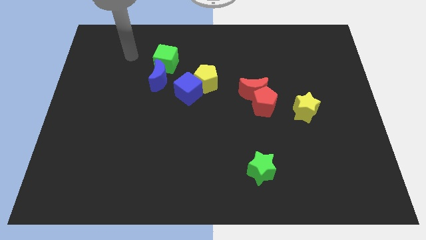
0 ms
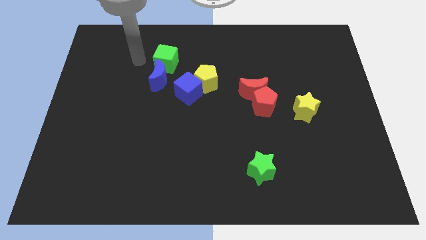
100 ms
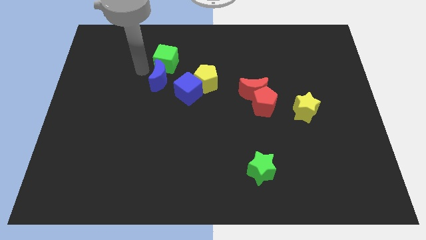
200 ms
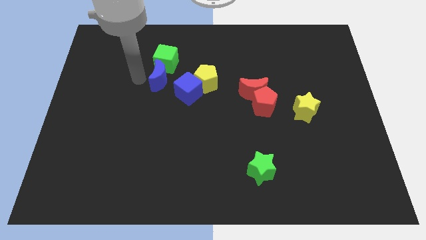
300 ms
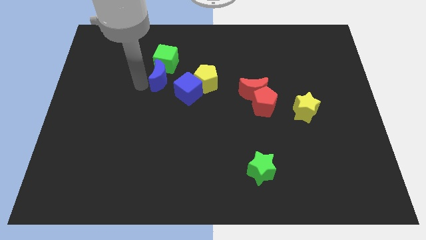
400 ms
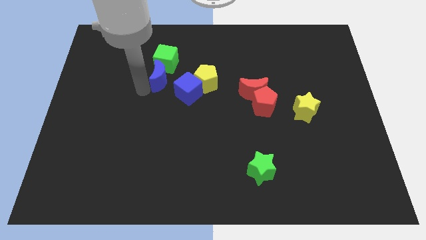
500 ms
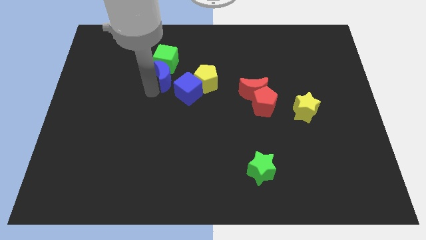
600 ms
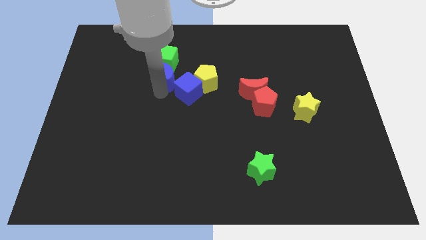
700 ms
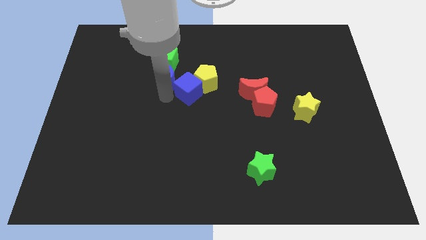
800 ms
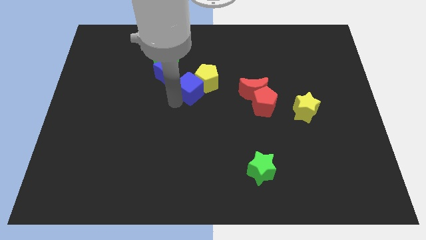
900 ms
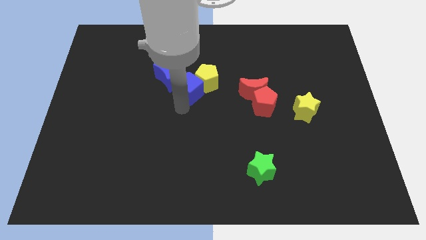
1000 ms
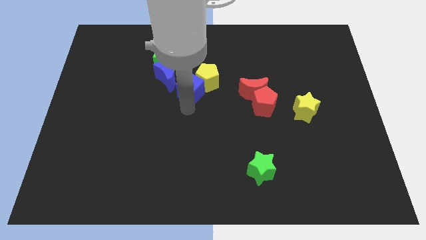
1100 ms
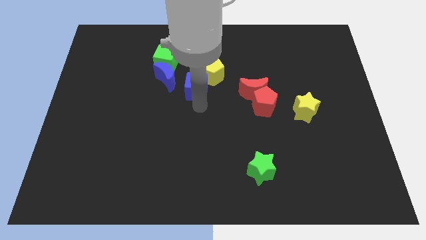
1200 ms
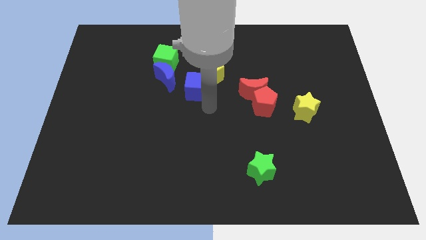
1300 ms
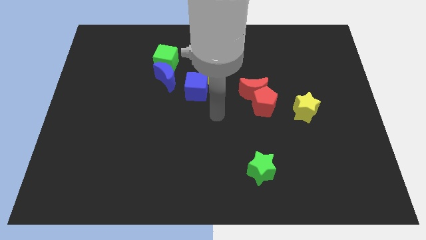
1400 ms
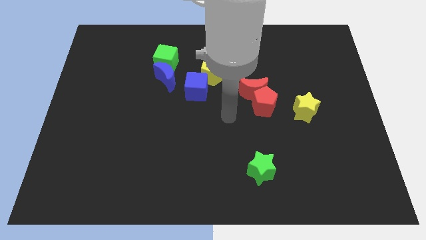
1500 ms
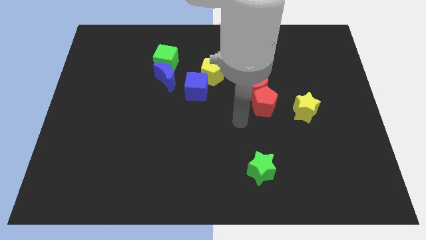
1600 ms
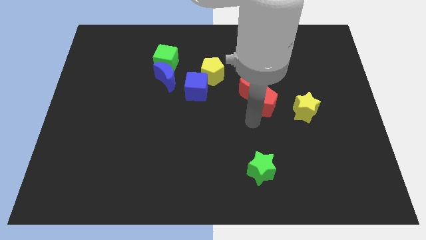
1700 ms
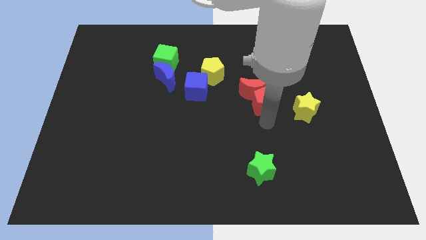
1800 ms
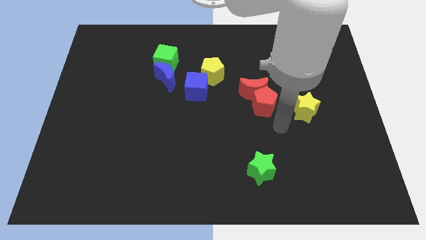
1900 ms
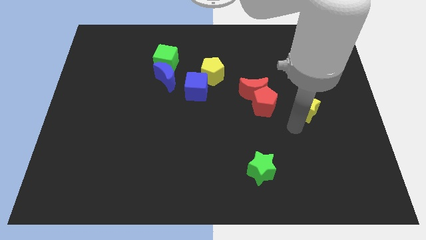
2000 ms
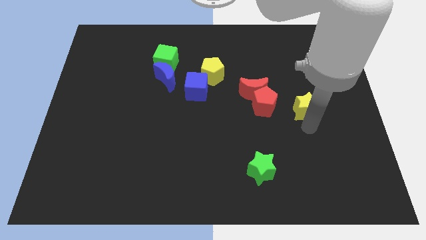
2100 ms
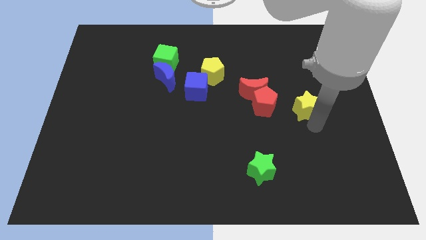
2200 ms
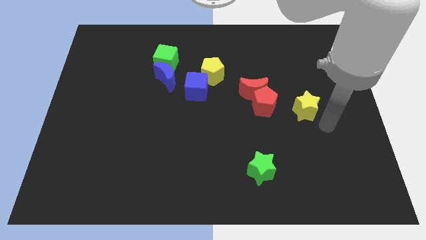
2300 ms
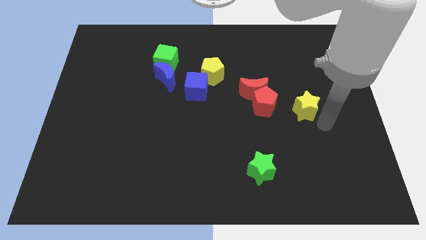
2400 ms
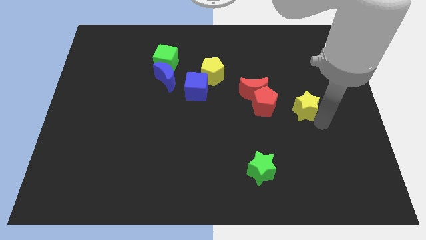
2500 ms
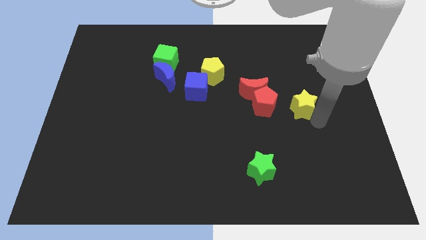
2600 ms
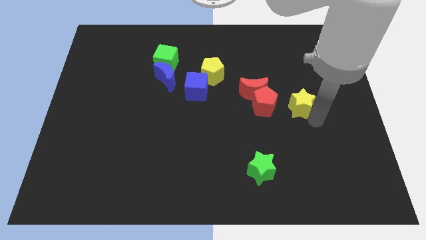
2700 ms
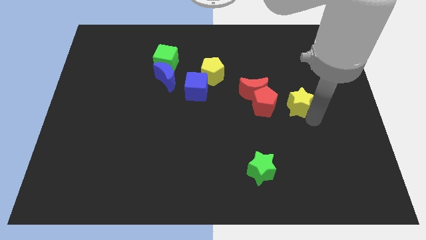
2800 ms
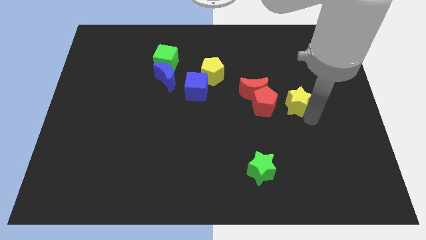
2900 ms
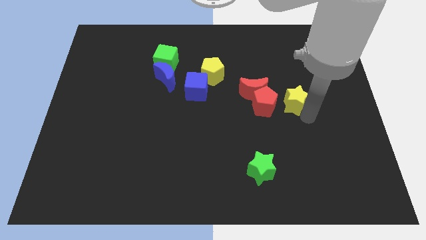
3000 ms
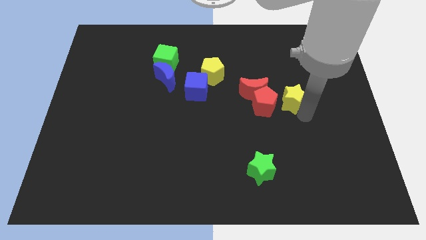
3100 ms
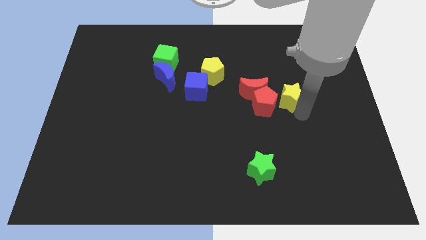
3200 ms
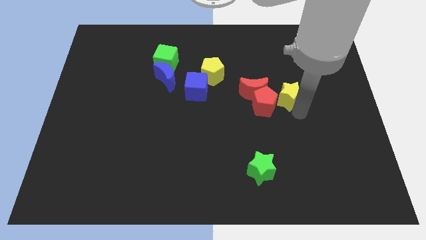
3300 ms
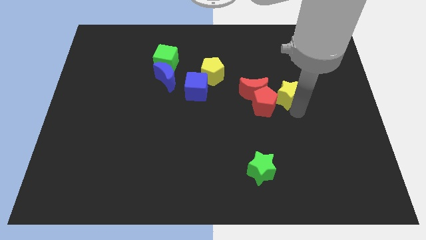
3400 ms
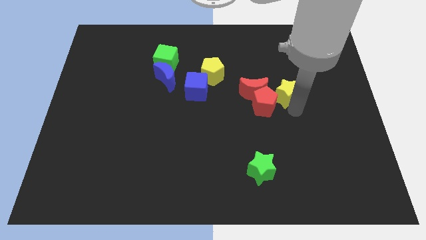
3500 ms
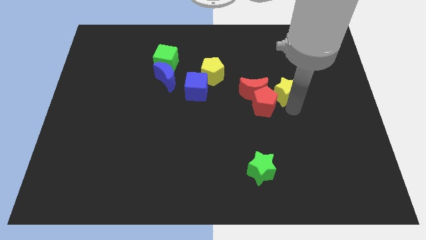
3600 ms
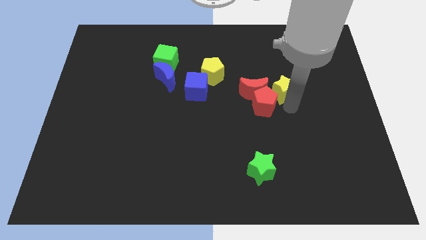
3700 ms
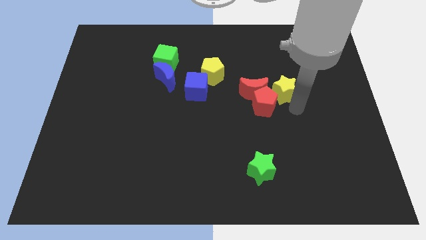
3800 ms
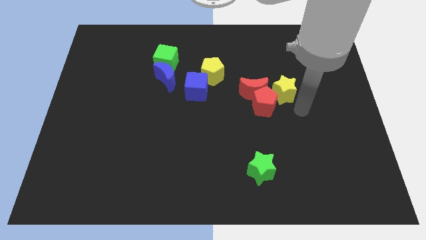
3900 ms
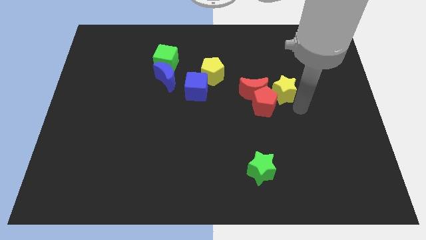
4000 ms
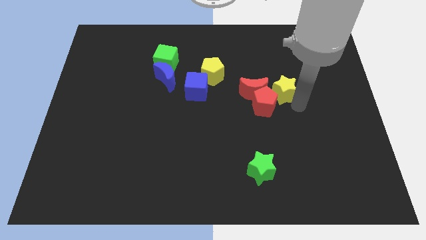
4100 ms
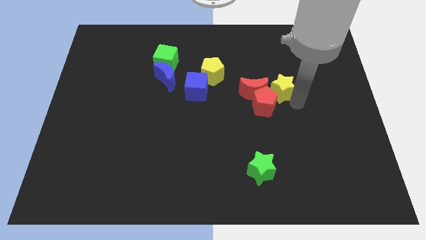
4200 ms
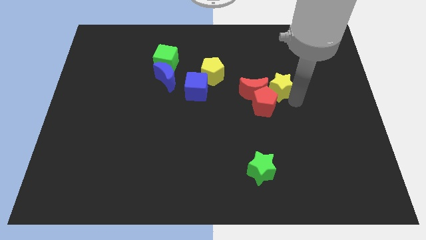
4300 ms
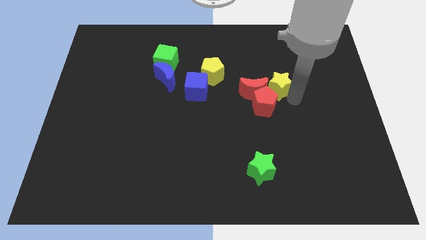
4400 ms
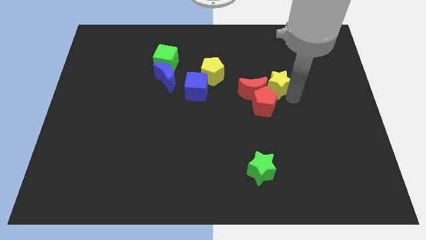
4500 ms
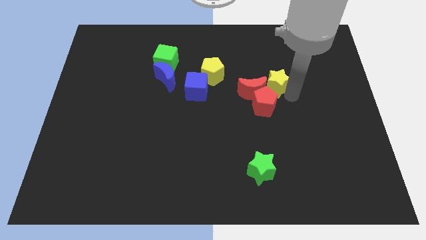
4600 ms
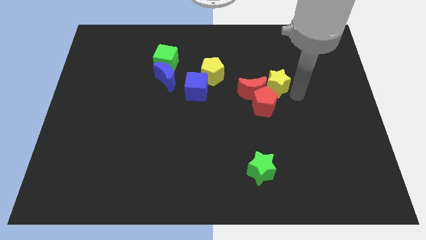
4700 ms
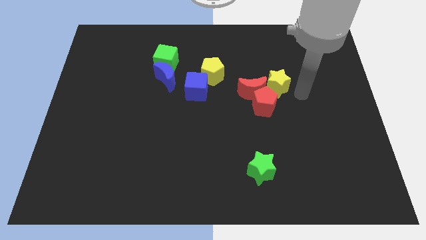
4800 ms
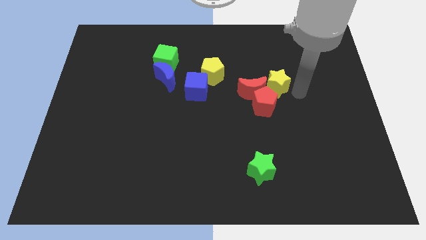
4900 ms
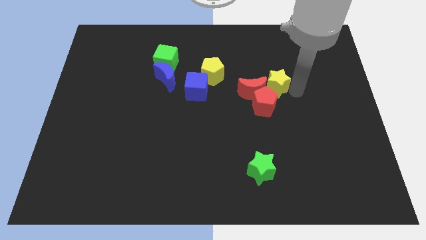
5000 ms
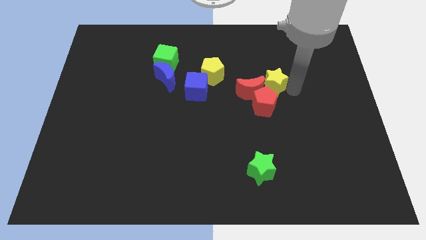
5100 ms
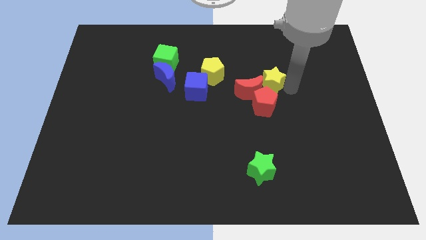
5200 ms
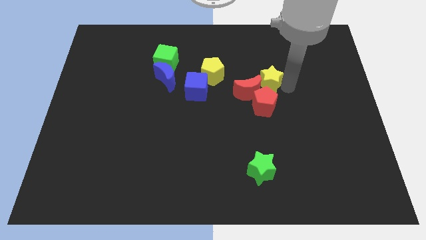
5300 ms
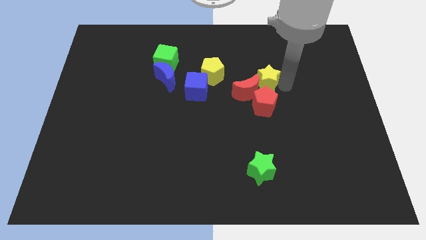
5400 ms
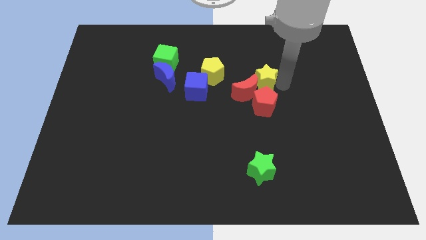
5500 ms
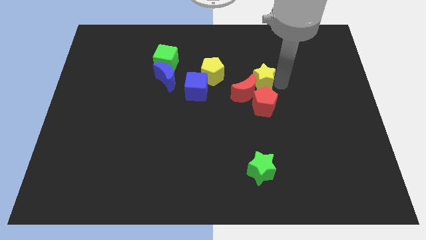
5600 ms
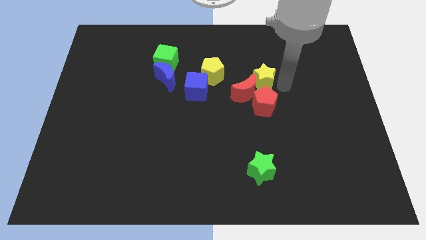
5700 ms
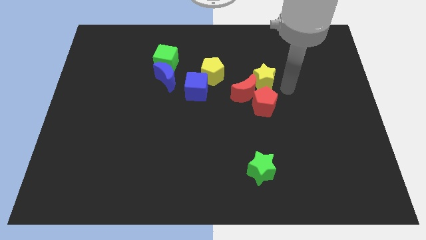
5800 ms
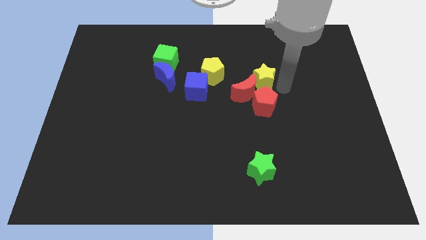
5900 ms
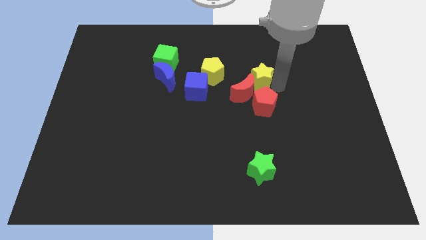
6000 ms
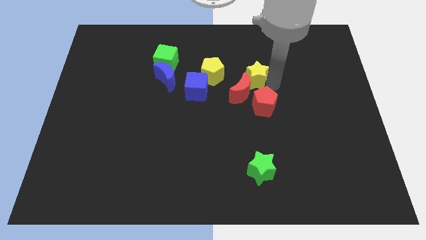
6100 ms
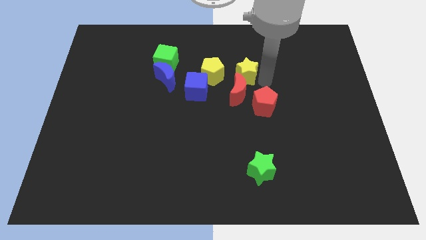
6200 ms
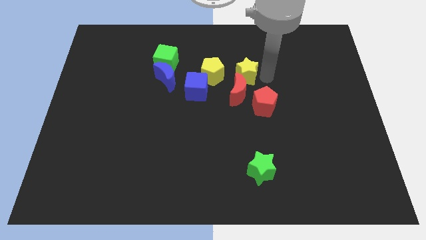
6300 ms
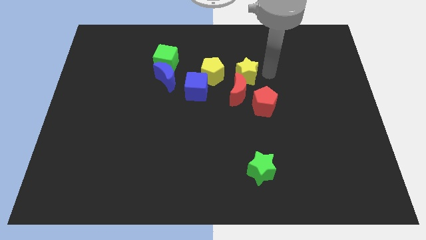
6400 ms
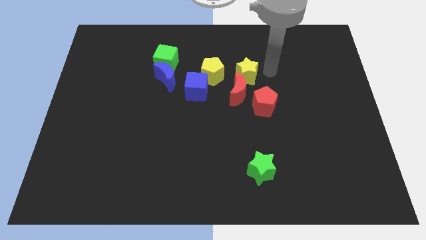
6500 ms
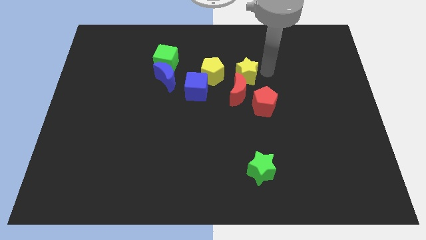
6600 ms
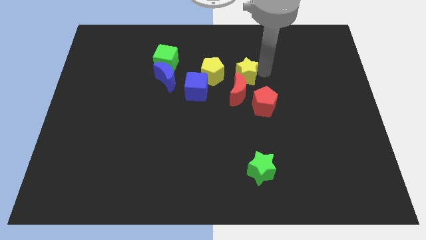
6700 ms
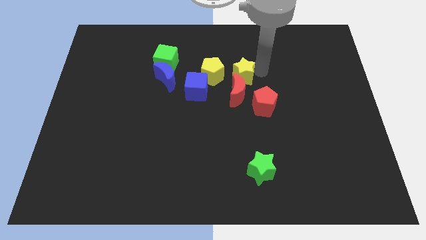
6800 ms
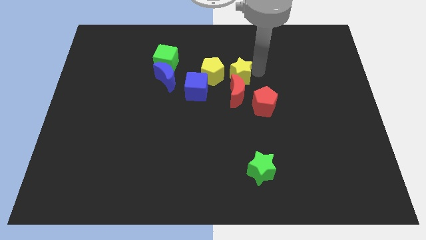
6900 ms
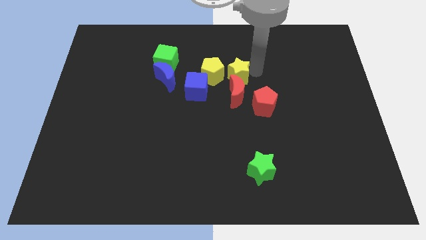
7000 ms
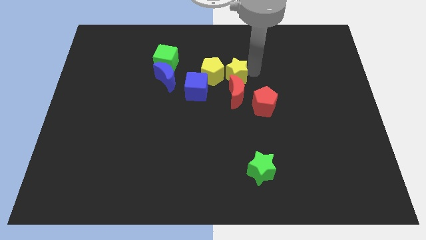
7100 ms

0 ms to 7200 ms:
push the yellow star towards the yellow pentagon
